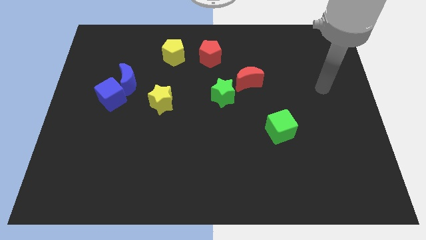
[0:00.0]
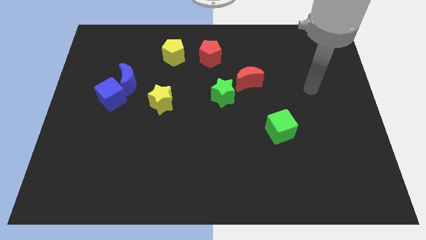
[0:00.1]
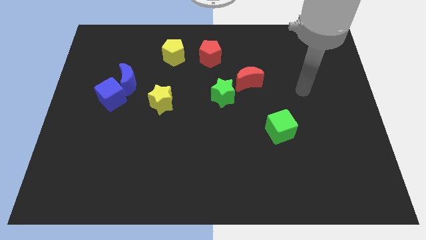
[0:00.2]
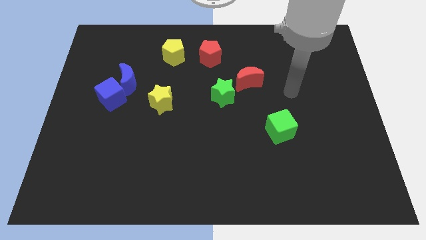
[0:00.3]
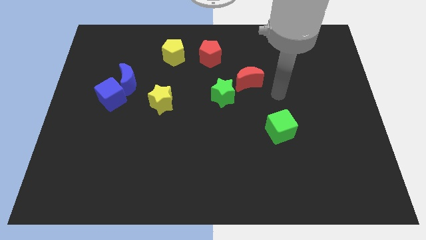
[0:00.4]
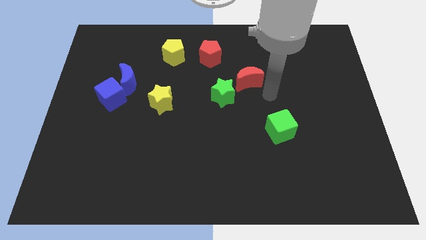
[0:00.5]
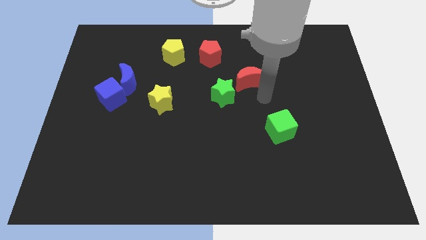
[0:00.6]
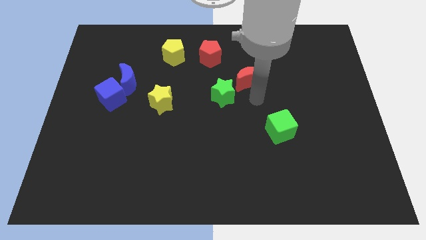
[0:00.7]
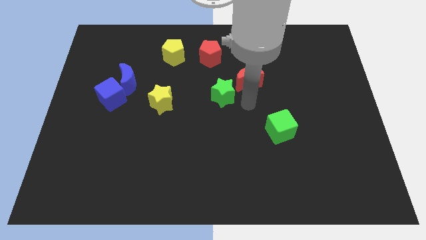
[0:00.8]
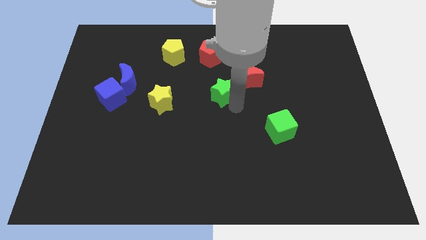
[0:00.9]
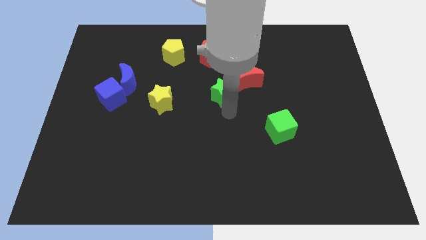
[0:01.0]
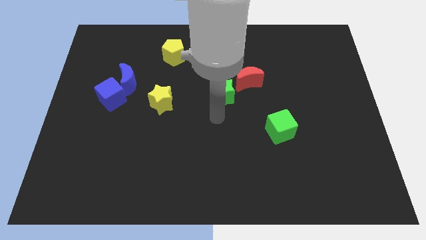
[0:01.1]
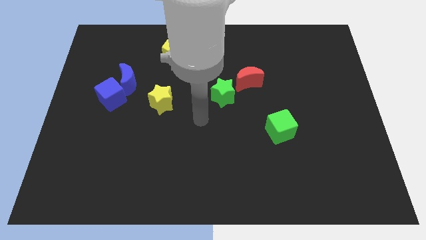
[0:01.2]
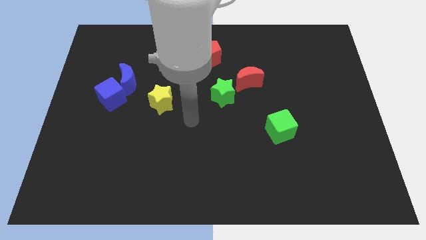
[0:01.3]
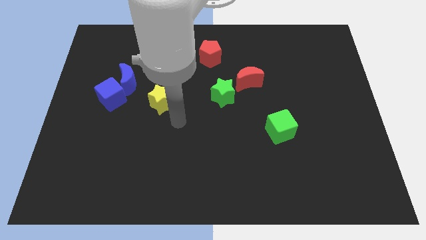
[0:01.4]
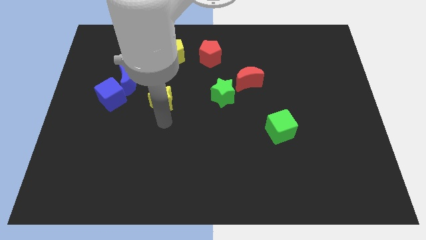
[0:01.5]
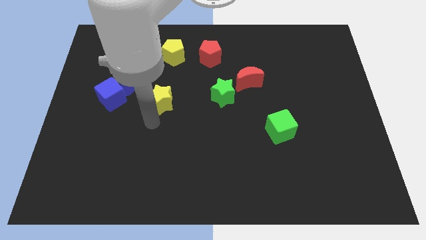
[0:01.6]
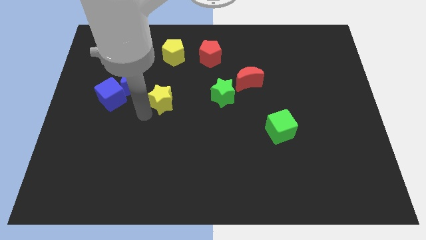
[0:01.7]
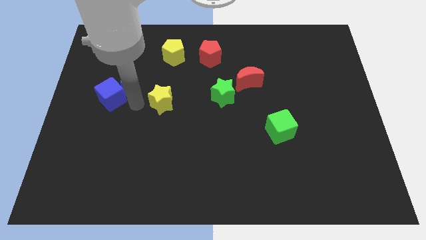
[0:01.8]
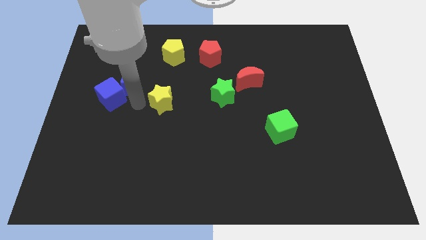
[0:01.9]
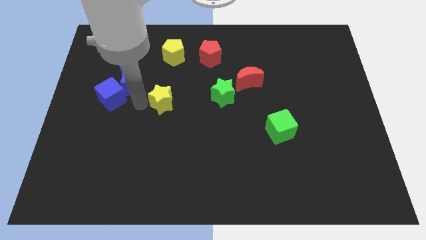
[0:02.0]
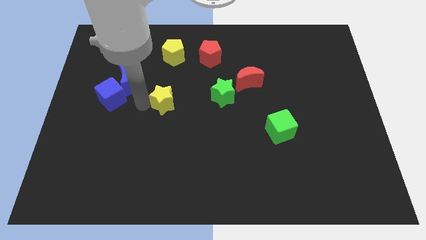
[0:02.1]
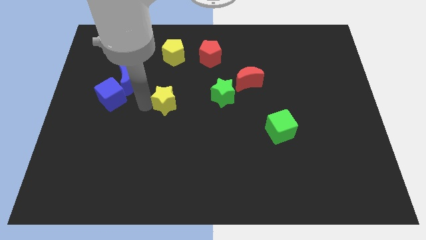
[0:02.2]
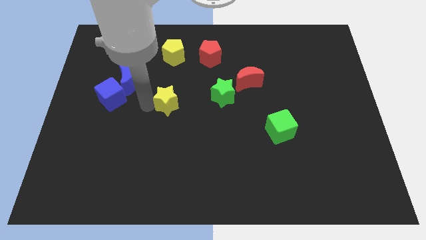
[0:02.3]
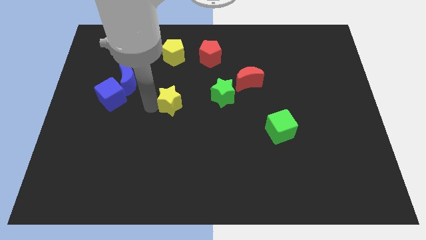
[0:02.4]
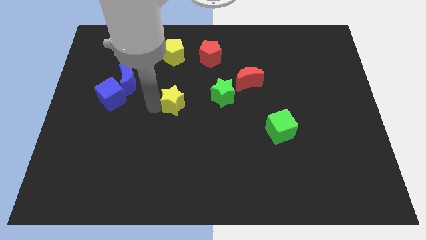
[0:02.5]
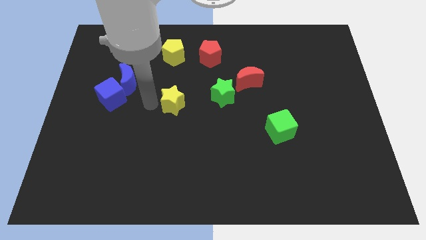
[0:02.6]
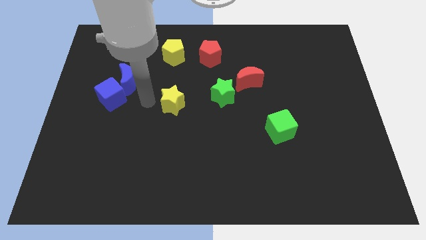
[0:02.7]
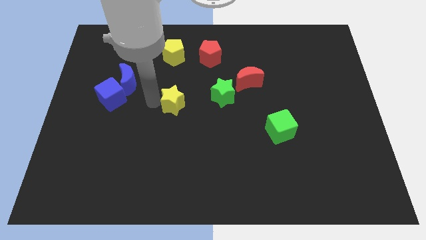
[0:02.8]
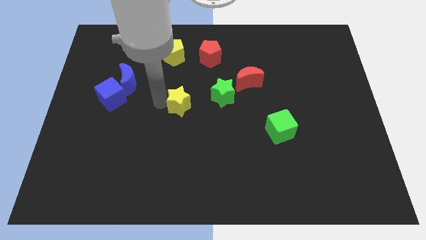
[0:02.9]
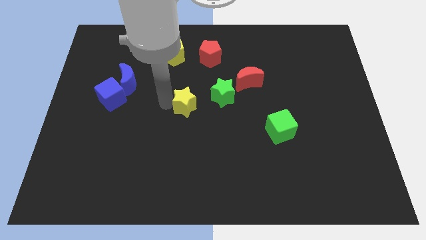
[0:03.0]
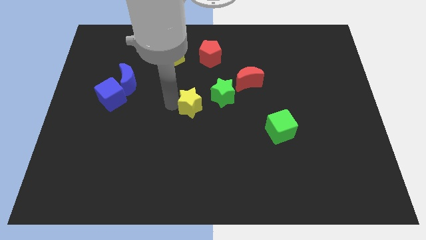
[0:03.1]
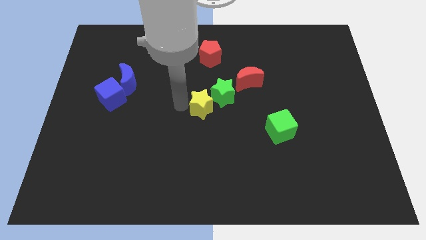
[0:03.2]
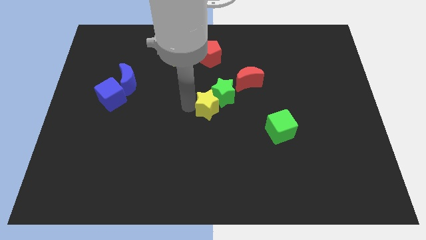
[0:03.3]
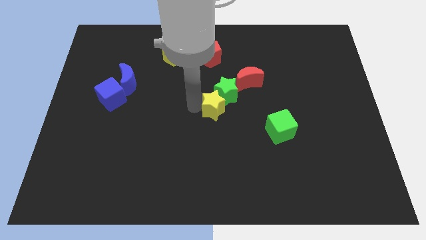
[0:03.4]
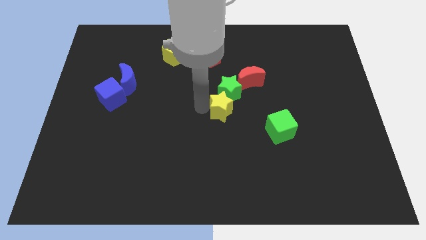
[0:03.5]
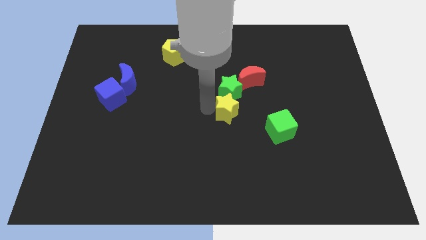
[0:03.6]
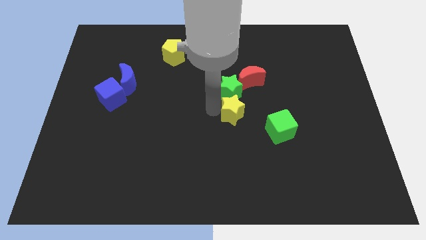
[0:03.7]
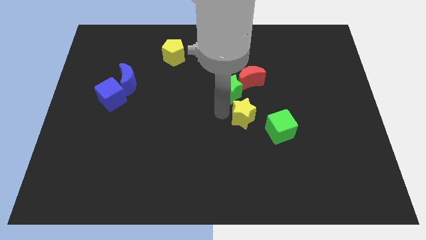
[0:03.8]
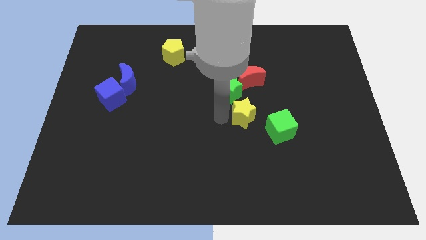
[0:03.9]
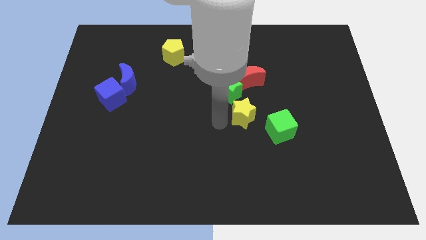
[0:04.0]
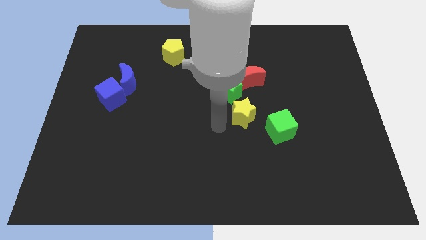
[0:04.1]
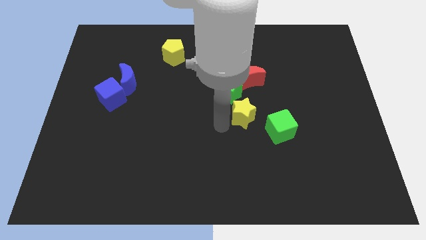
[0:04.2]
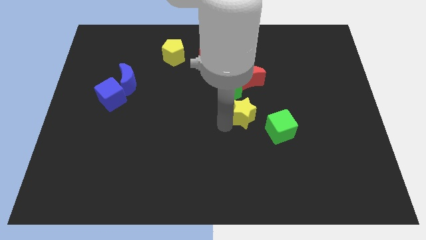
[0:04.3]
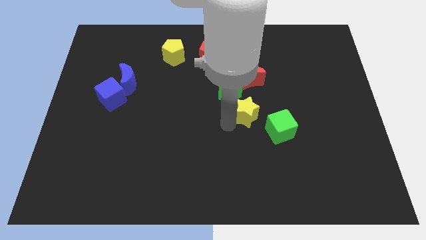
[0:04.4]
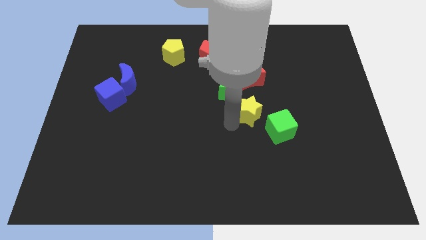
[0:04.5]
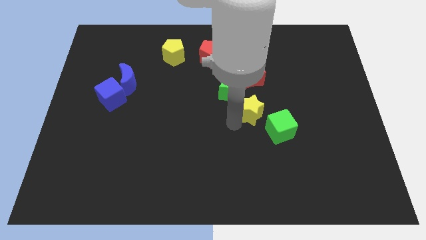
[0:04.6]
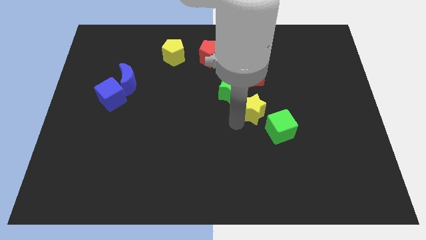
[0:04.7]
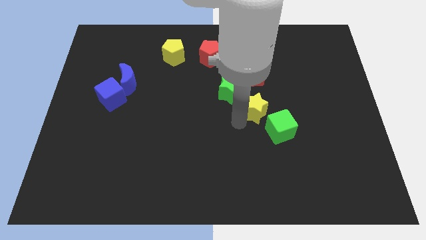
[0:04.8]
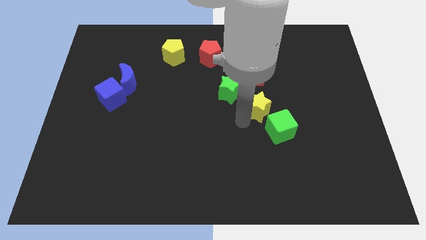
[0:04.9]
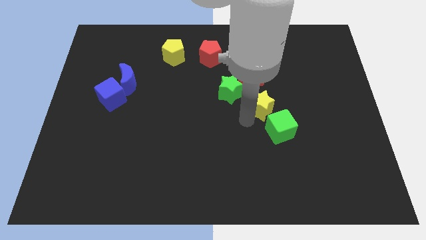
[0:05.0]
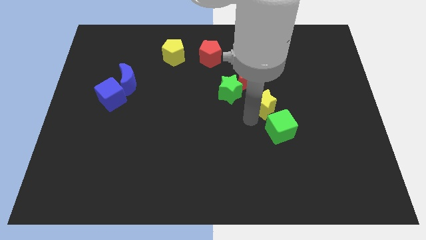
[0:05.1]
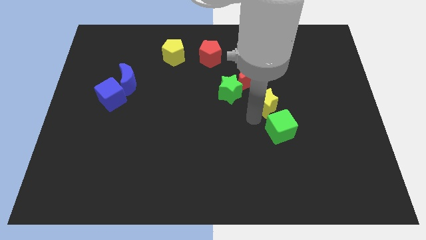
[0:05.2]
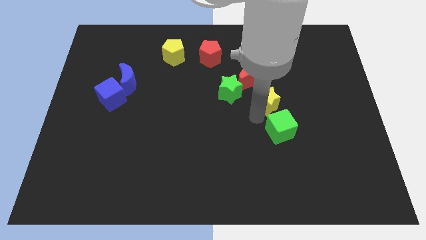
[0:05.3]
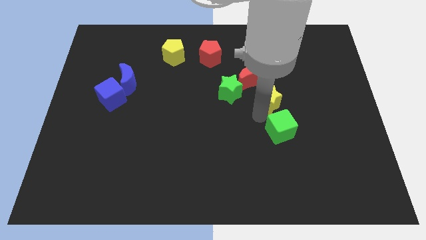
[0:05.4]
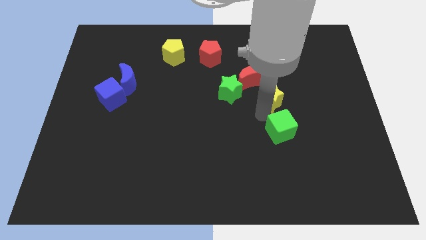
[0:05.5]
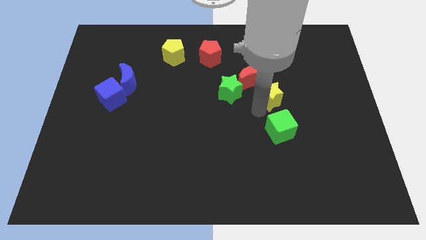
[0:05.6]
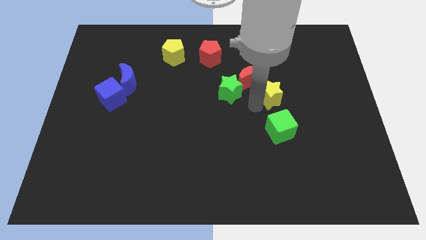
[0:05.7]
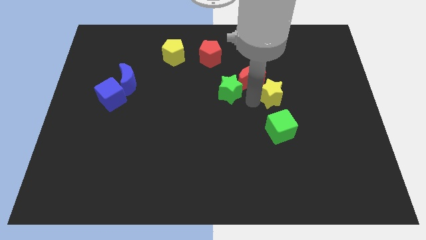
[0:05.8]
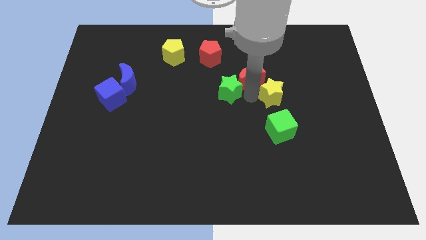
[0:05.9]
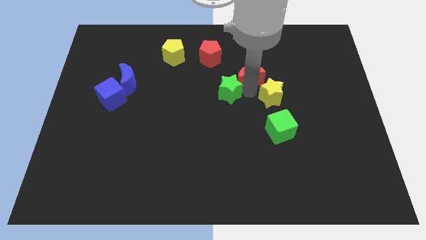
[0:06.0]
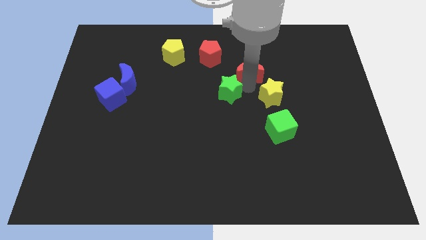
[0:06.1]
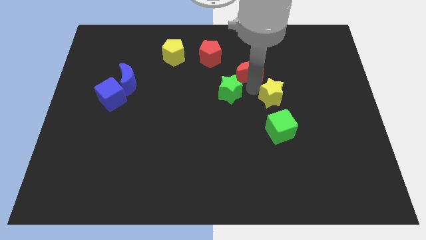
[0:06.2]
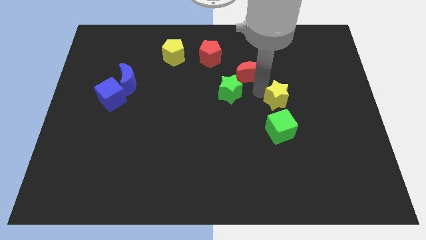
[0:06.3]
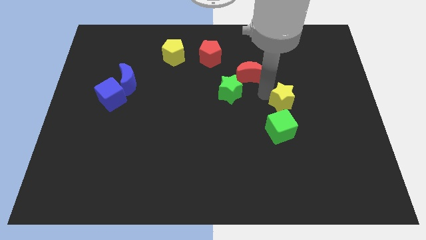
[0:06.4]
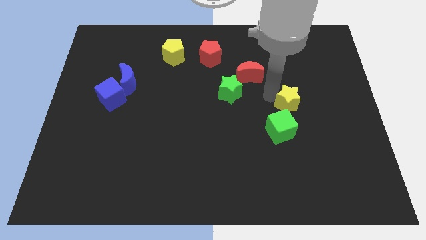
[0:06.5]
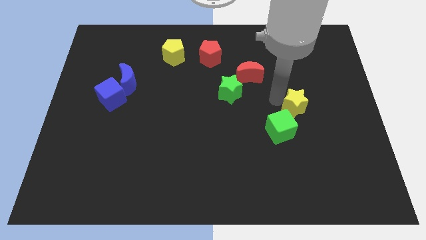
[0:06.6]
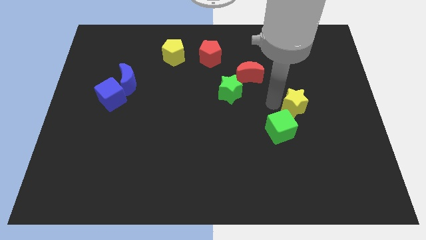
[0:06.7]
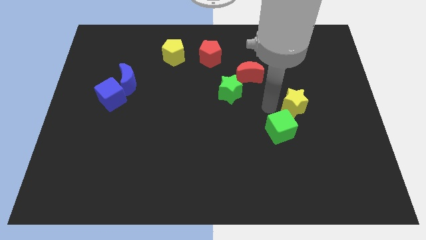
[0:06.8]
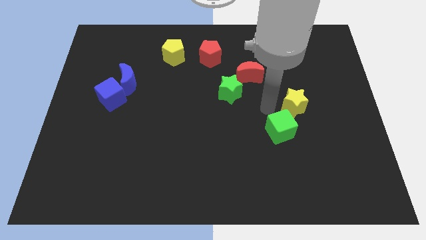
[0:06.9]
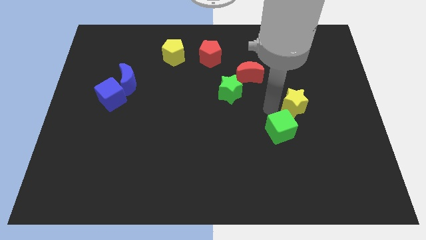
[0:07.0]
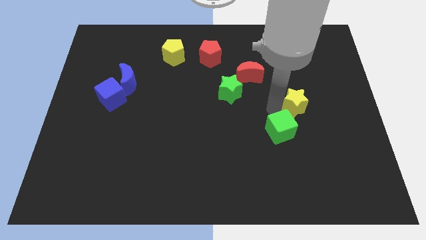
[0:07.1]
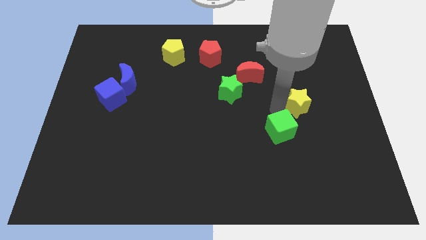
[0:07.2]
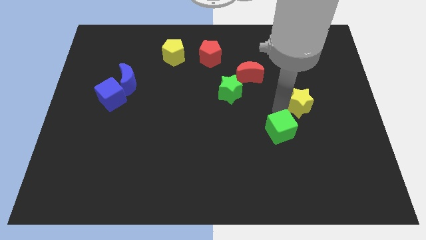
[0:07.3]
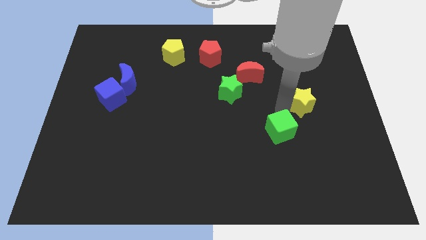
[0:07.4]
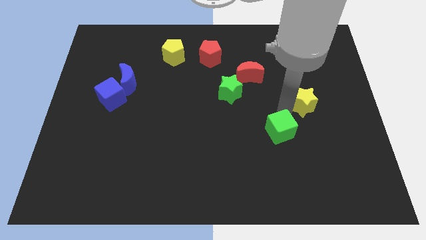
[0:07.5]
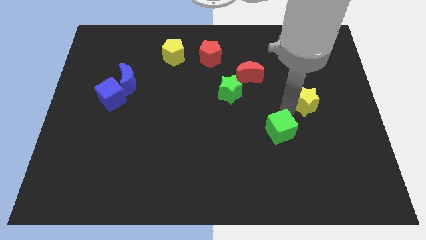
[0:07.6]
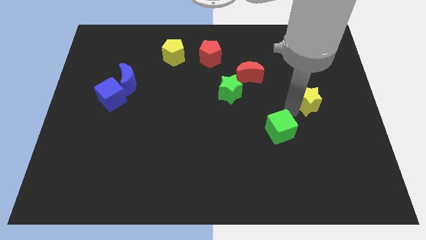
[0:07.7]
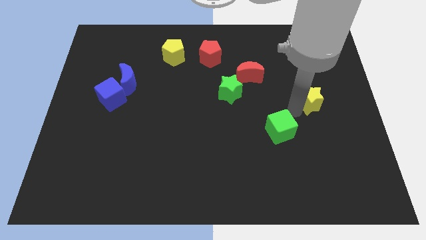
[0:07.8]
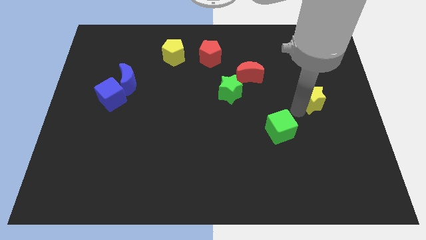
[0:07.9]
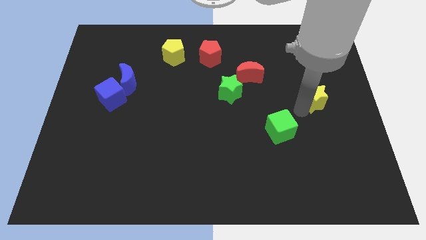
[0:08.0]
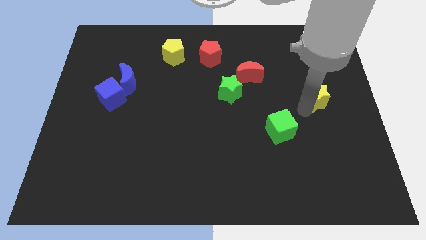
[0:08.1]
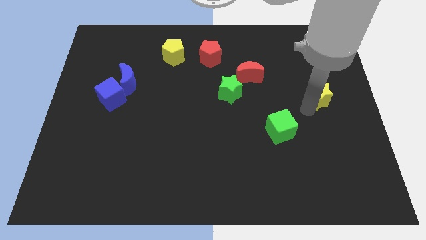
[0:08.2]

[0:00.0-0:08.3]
push the yellow star to the right side of the board
